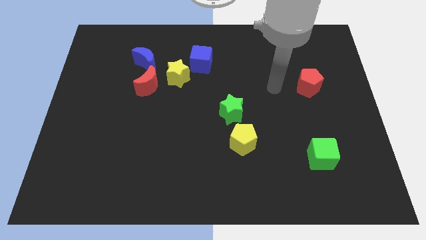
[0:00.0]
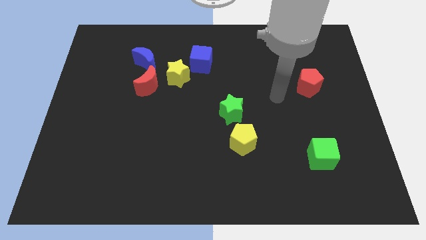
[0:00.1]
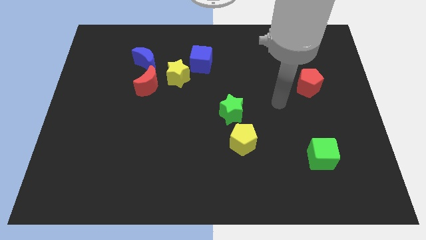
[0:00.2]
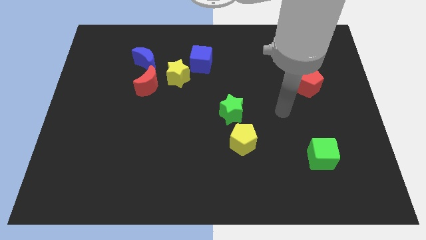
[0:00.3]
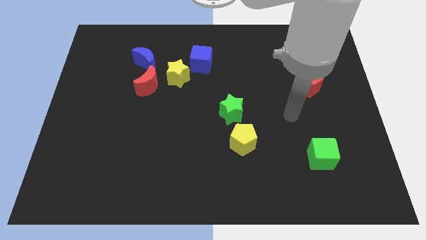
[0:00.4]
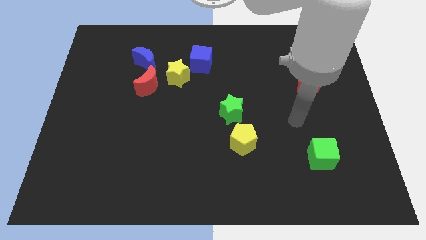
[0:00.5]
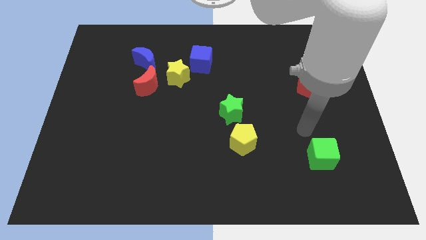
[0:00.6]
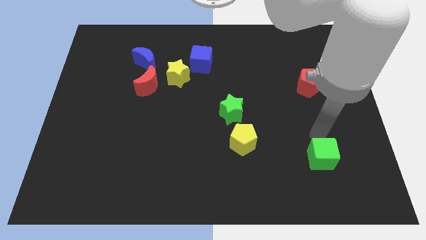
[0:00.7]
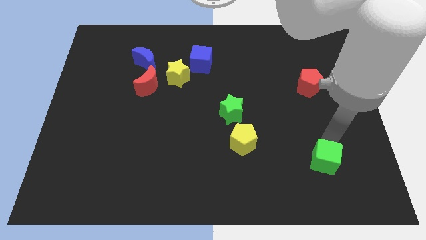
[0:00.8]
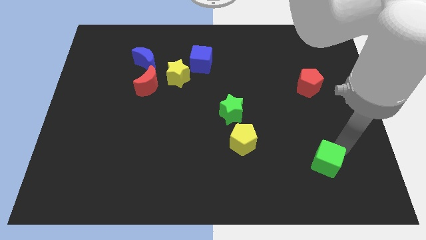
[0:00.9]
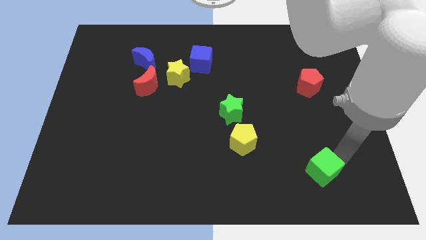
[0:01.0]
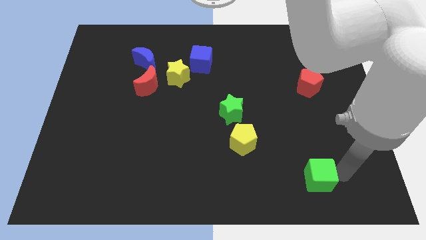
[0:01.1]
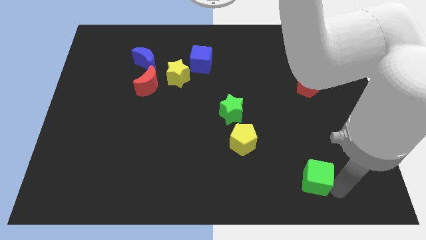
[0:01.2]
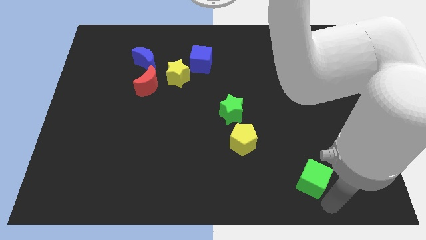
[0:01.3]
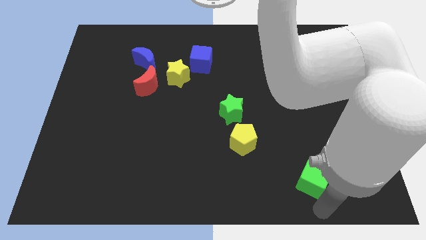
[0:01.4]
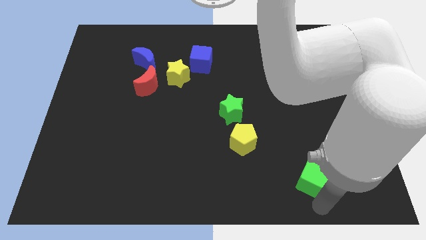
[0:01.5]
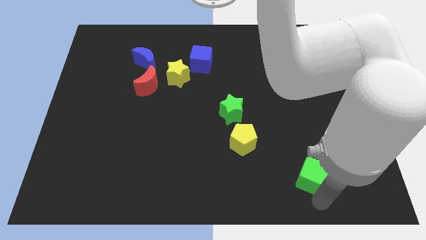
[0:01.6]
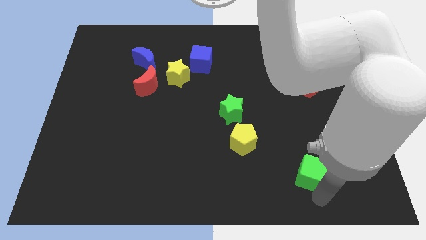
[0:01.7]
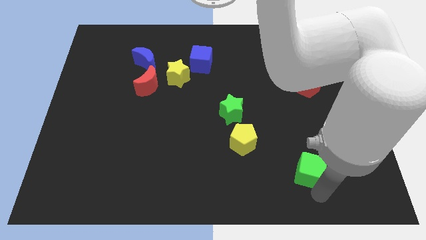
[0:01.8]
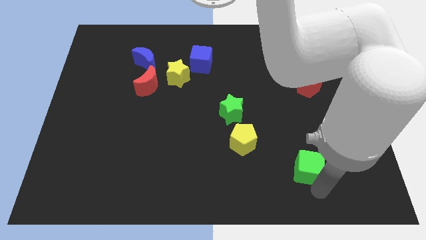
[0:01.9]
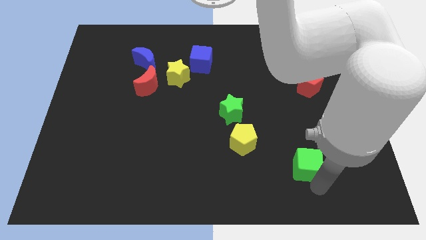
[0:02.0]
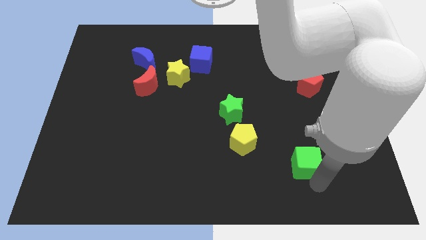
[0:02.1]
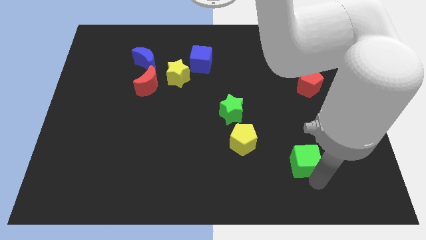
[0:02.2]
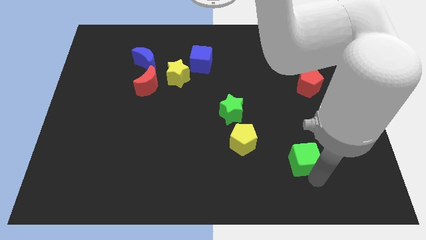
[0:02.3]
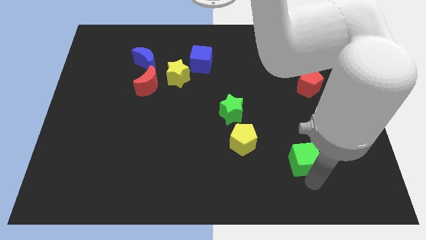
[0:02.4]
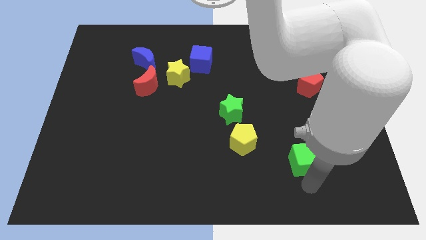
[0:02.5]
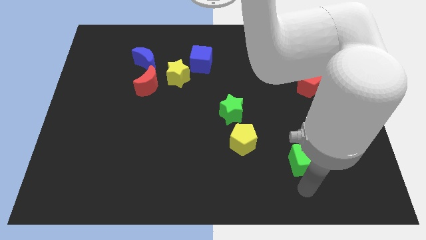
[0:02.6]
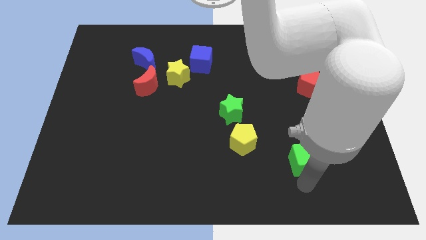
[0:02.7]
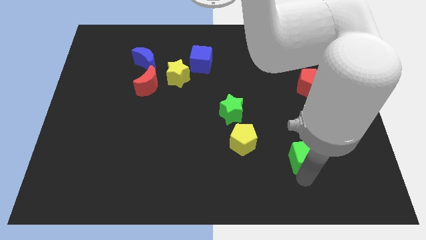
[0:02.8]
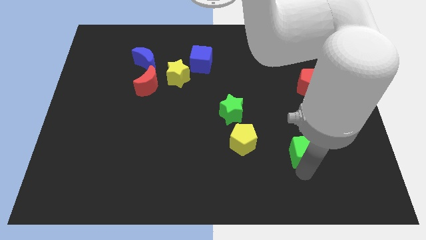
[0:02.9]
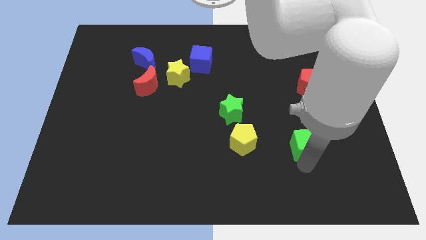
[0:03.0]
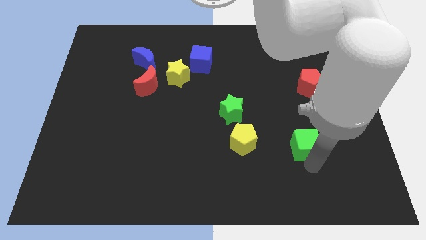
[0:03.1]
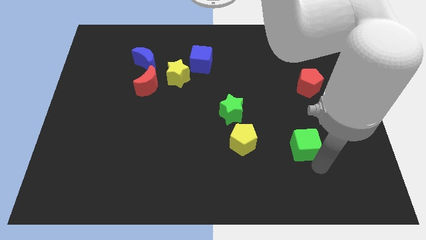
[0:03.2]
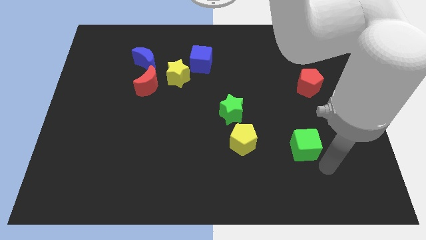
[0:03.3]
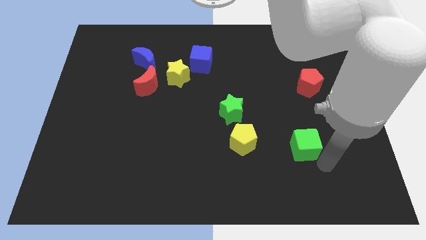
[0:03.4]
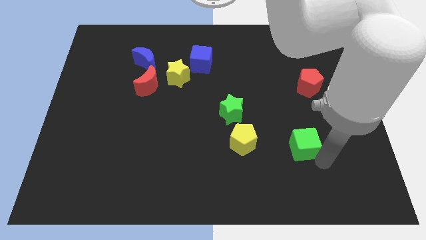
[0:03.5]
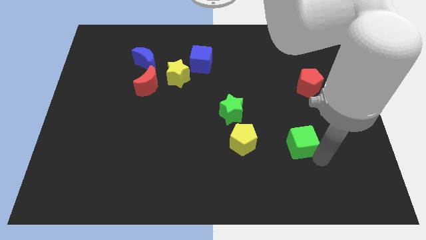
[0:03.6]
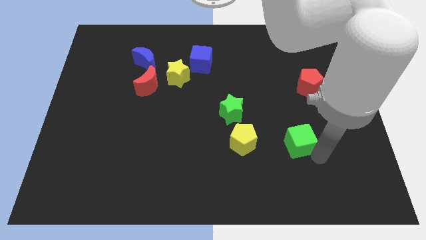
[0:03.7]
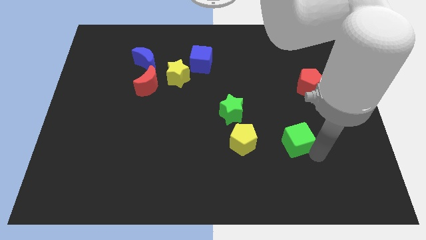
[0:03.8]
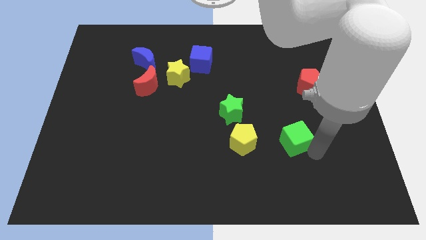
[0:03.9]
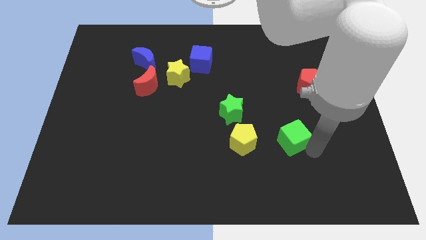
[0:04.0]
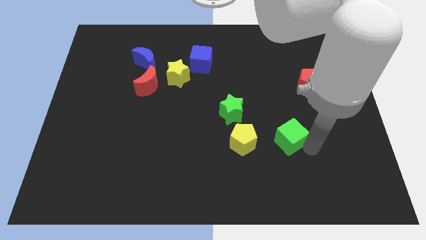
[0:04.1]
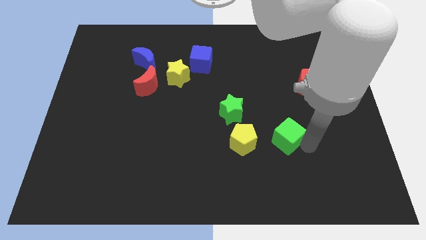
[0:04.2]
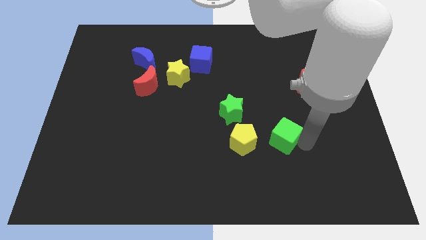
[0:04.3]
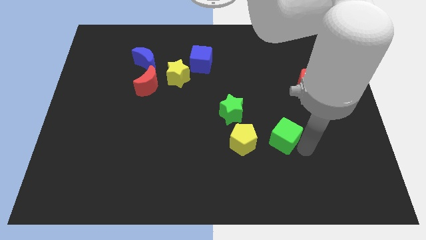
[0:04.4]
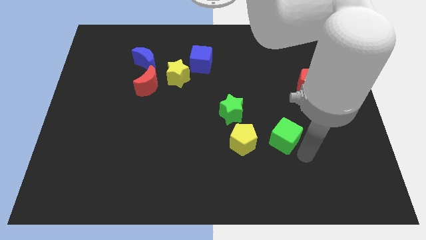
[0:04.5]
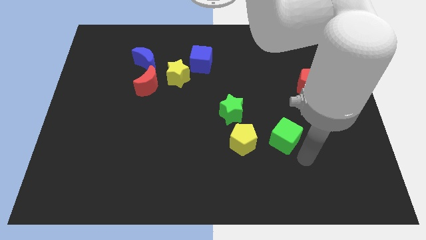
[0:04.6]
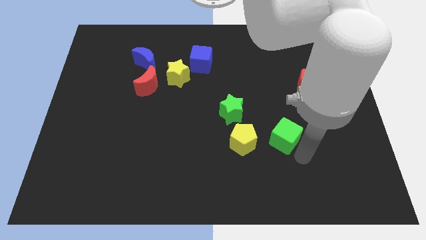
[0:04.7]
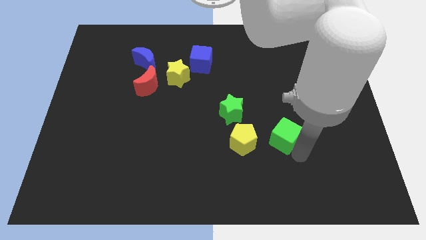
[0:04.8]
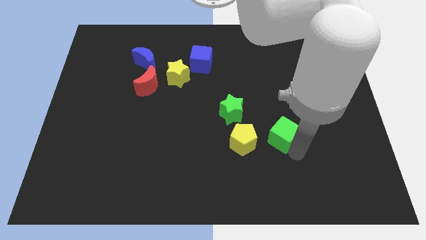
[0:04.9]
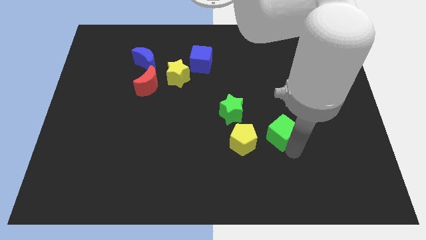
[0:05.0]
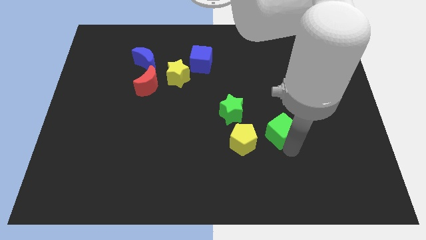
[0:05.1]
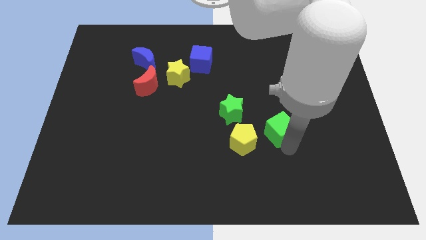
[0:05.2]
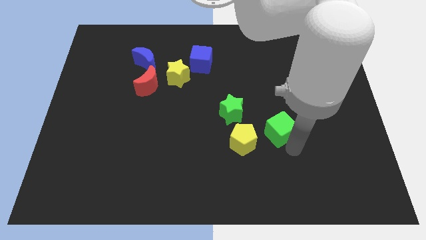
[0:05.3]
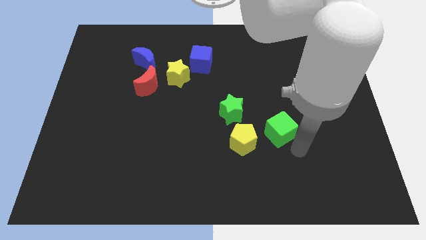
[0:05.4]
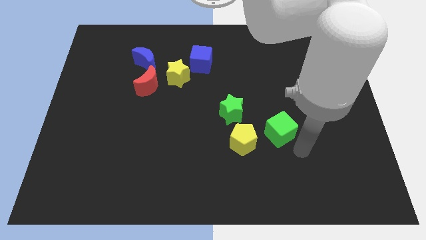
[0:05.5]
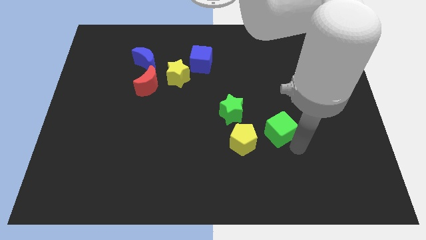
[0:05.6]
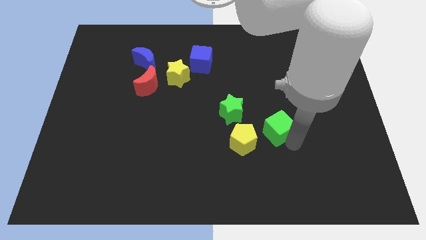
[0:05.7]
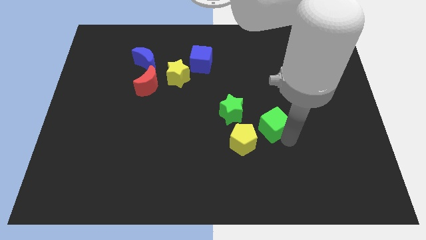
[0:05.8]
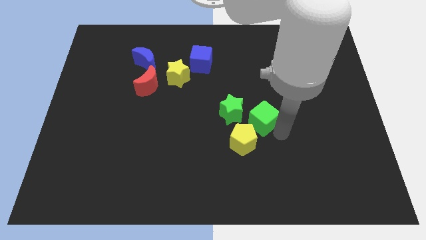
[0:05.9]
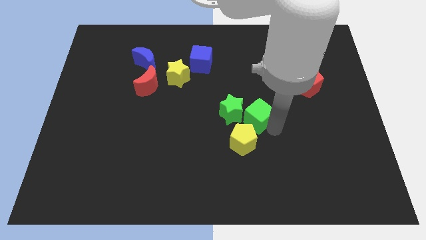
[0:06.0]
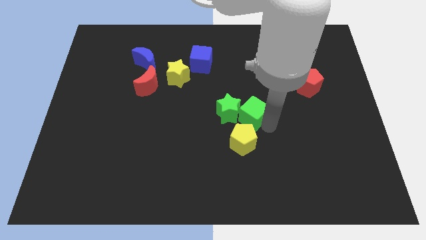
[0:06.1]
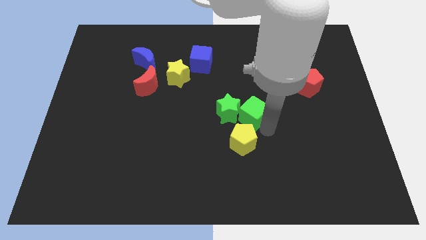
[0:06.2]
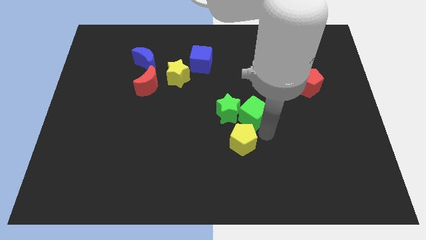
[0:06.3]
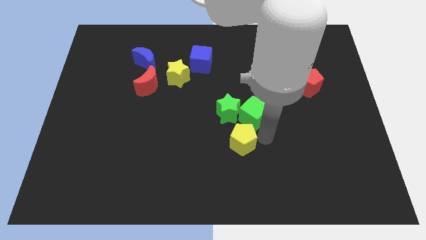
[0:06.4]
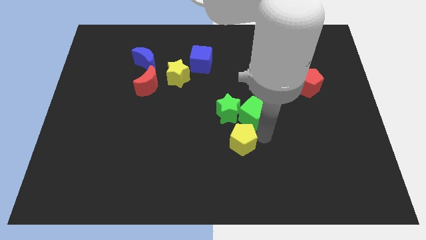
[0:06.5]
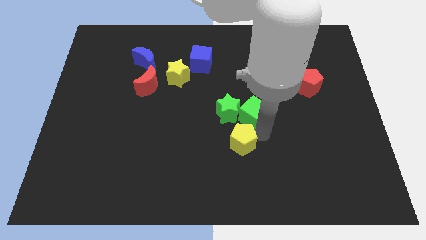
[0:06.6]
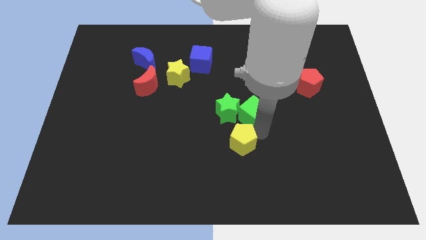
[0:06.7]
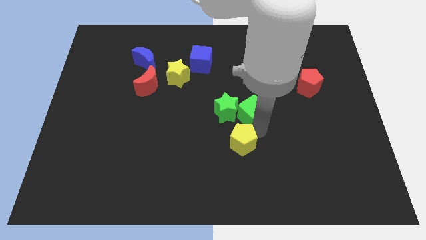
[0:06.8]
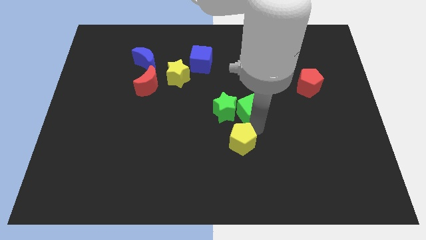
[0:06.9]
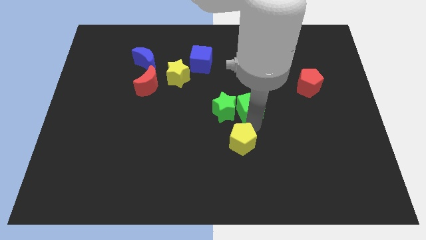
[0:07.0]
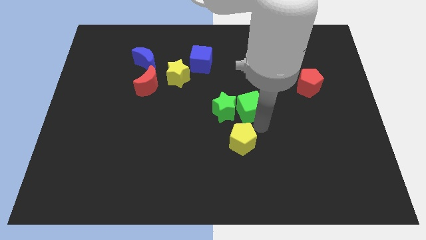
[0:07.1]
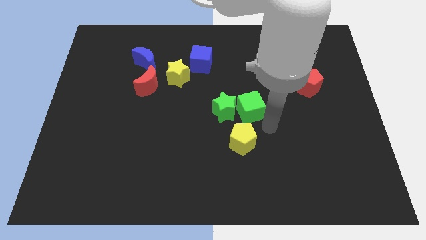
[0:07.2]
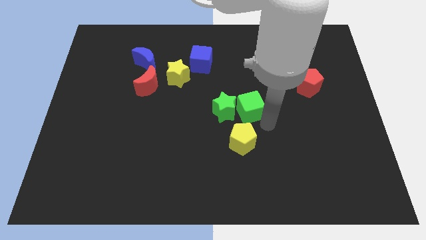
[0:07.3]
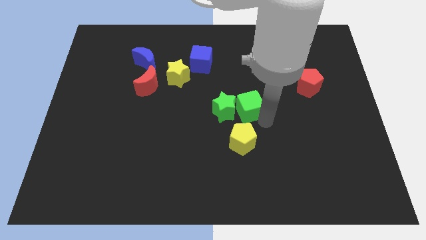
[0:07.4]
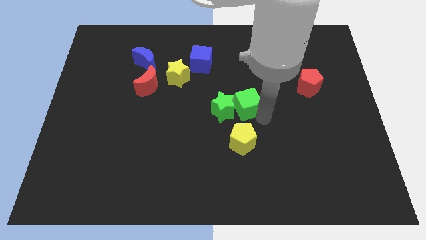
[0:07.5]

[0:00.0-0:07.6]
slide the green cube upwards and to the left diagonally

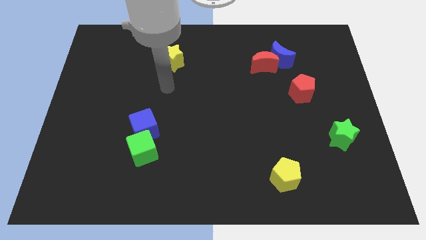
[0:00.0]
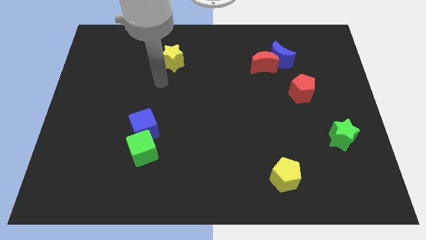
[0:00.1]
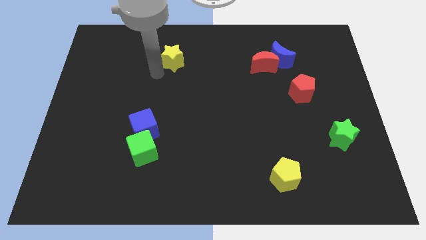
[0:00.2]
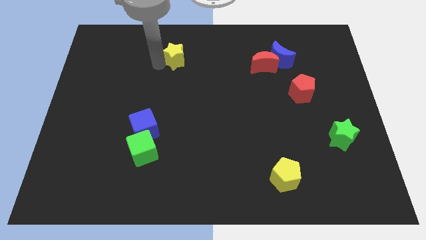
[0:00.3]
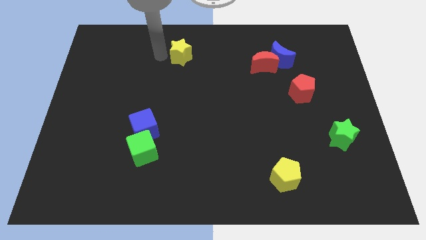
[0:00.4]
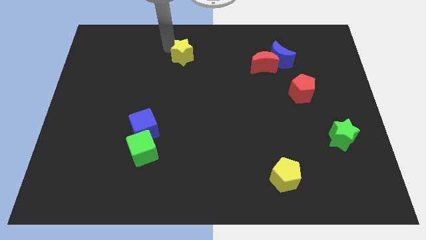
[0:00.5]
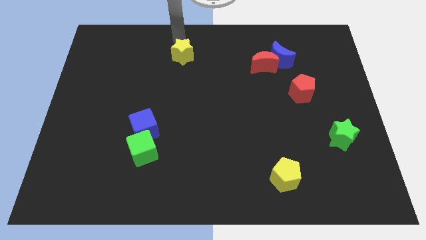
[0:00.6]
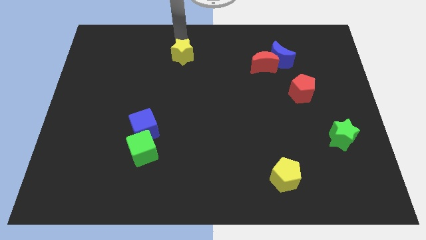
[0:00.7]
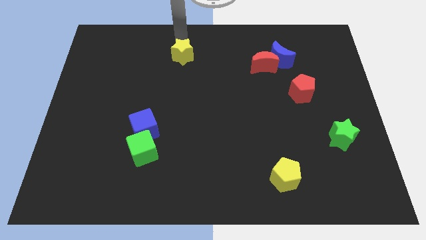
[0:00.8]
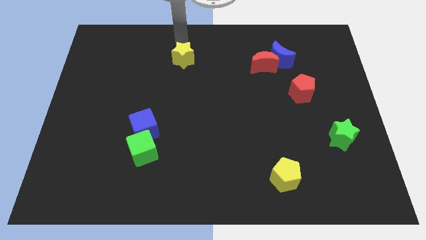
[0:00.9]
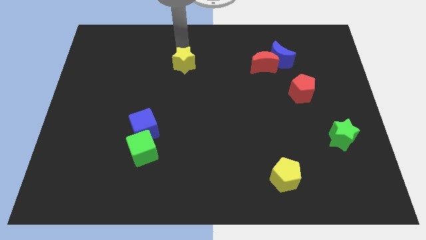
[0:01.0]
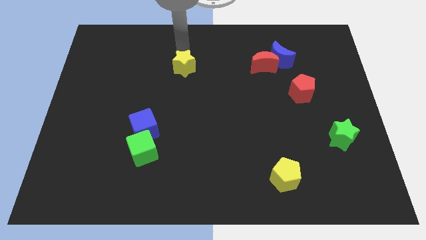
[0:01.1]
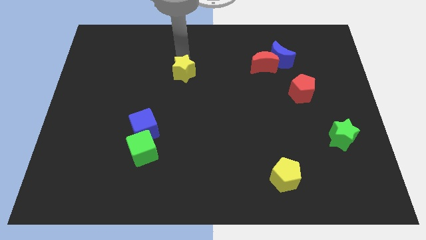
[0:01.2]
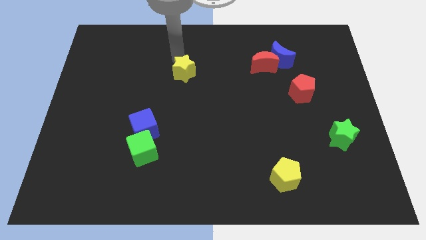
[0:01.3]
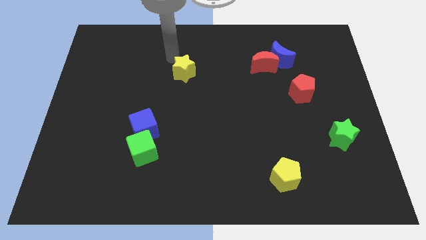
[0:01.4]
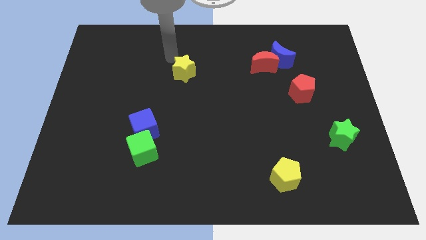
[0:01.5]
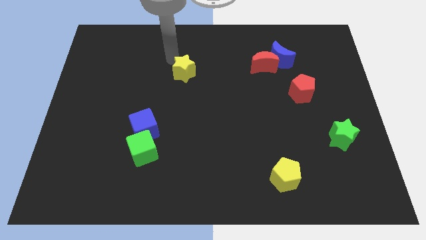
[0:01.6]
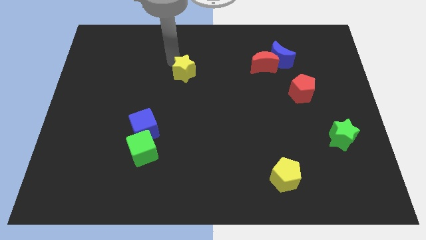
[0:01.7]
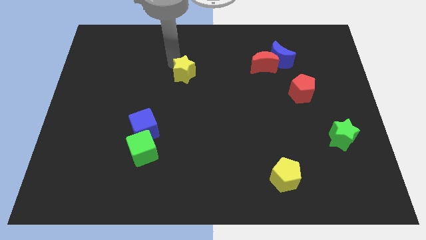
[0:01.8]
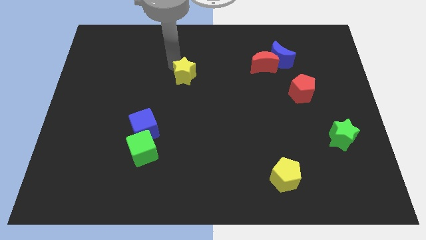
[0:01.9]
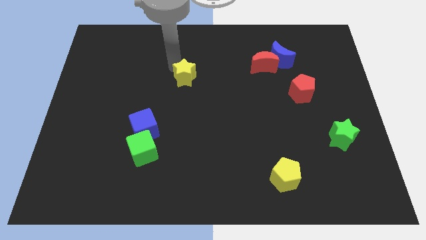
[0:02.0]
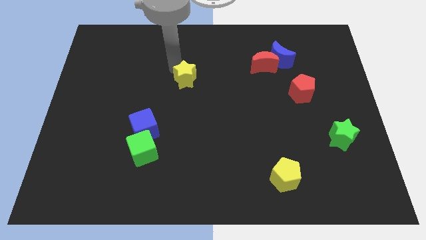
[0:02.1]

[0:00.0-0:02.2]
move the yellow star downwards and right diagonally a little
